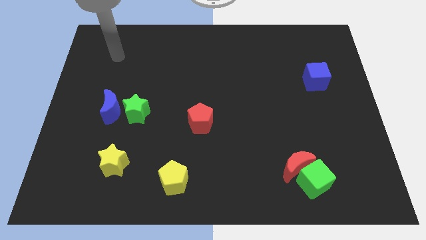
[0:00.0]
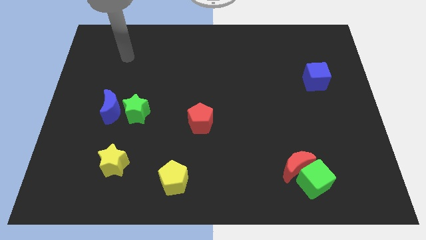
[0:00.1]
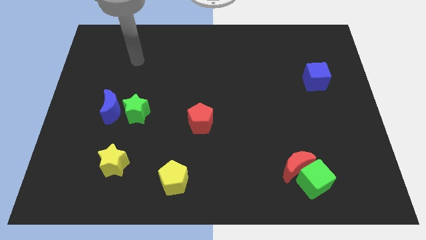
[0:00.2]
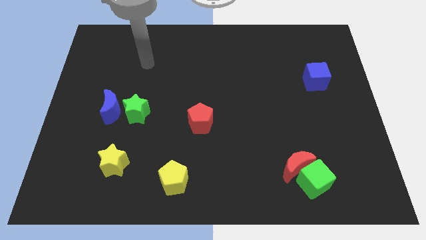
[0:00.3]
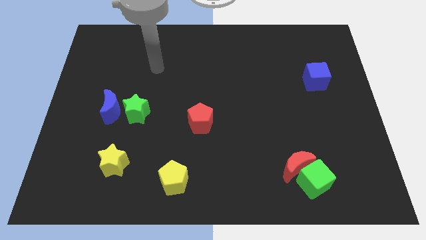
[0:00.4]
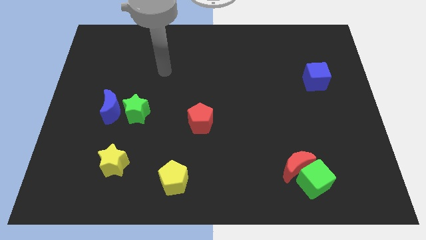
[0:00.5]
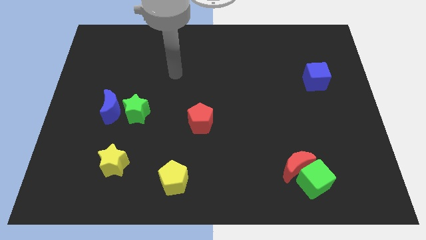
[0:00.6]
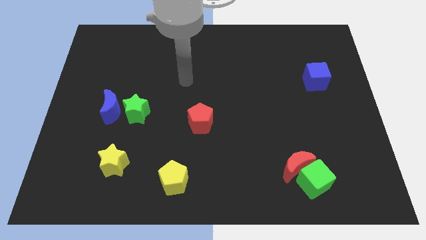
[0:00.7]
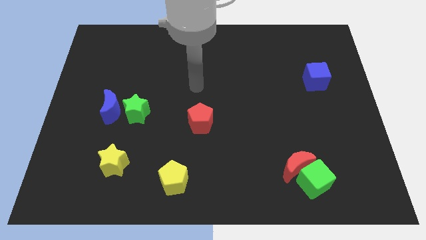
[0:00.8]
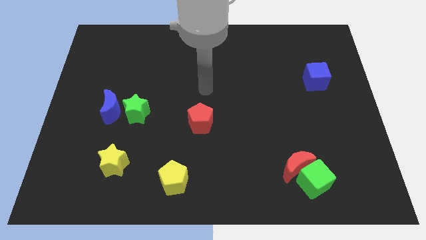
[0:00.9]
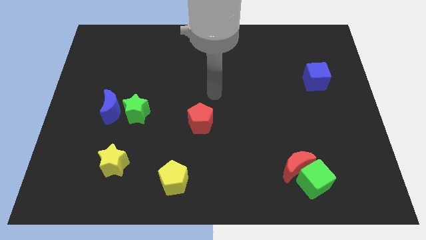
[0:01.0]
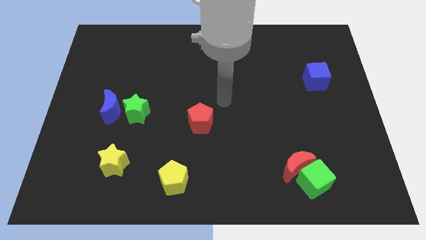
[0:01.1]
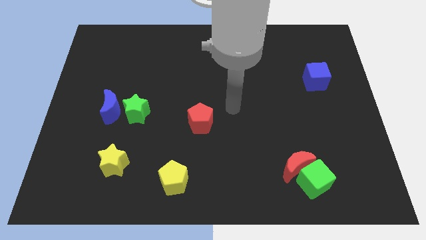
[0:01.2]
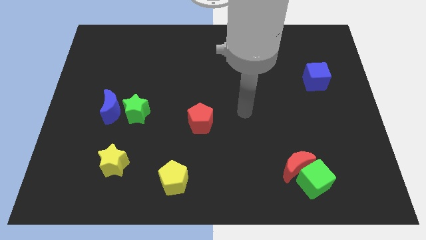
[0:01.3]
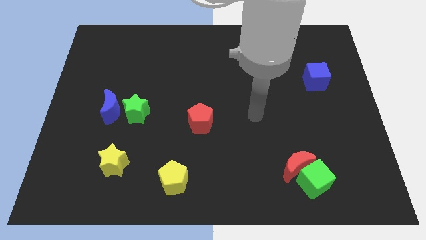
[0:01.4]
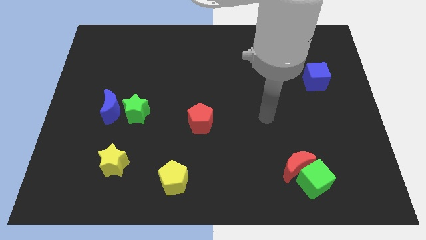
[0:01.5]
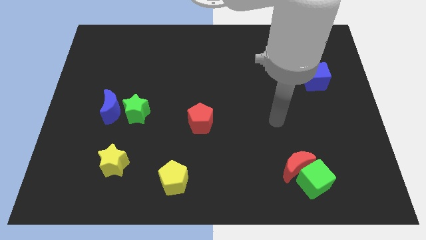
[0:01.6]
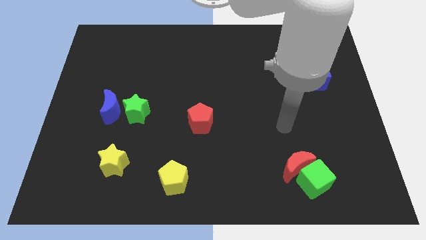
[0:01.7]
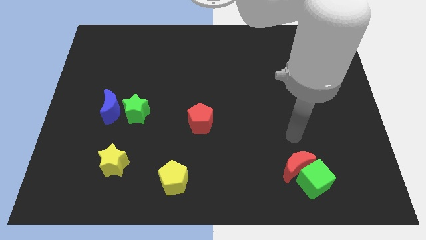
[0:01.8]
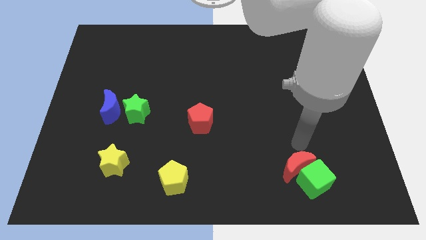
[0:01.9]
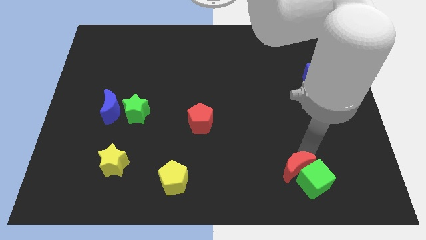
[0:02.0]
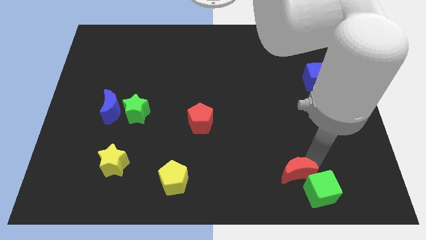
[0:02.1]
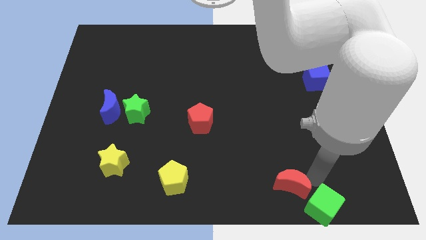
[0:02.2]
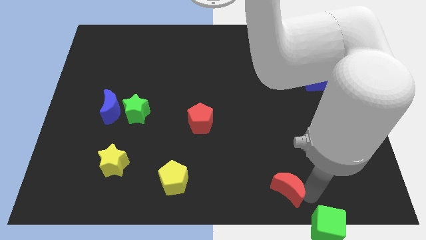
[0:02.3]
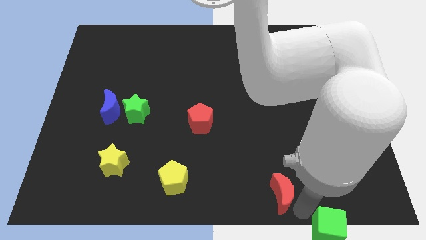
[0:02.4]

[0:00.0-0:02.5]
separate the red moon from the green cube

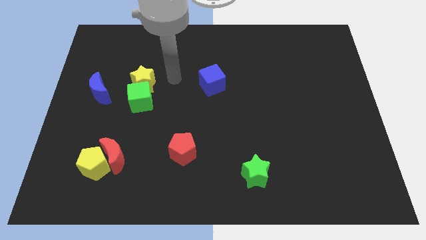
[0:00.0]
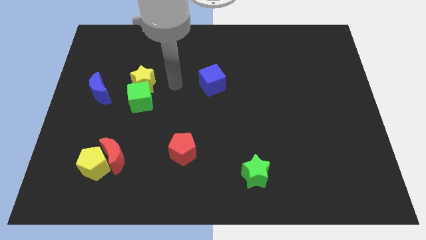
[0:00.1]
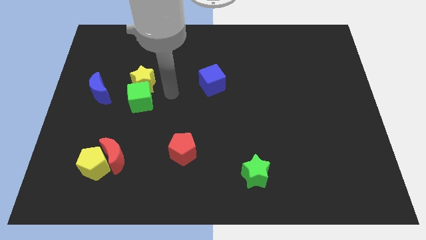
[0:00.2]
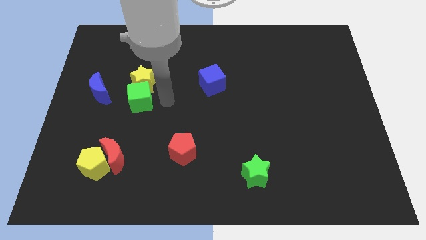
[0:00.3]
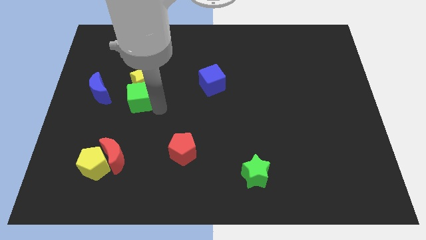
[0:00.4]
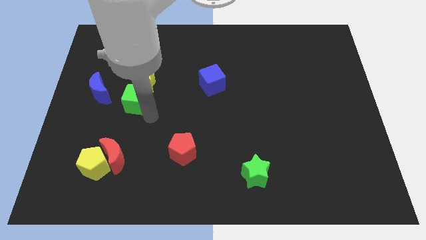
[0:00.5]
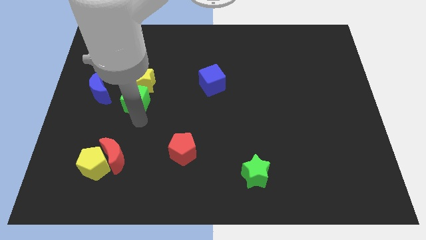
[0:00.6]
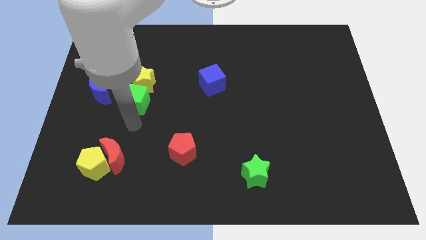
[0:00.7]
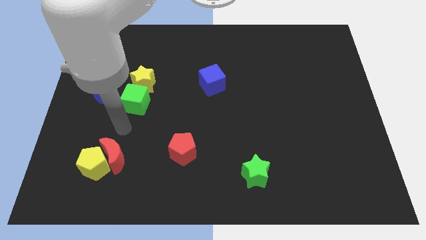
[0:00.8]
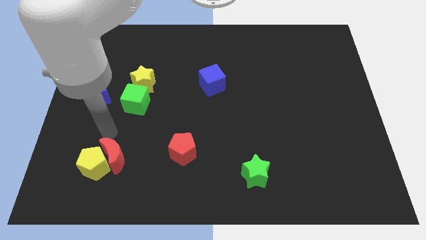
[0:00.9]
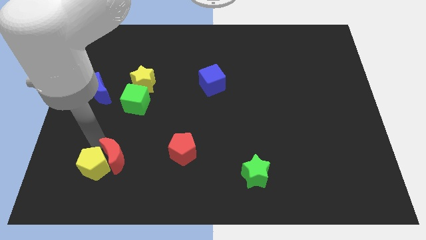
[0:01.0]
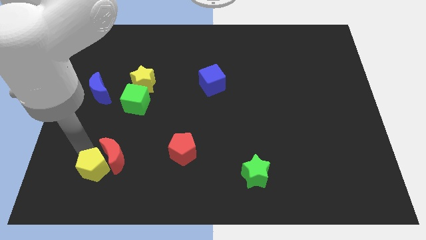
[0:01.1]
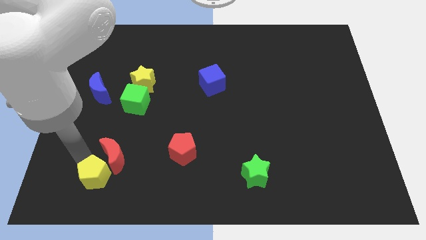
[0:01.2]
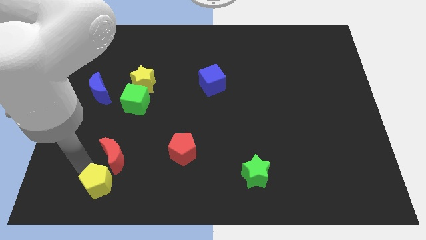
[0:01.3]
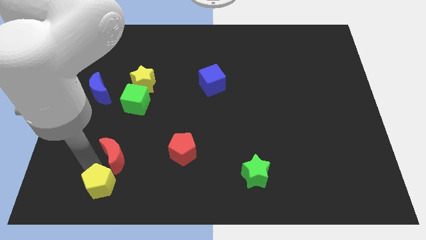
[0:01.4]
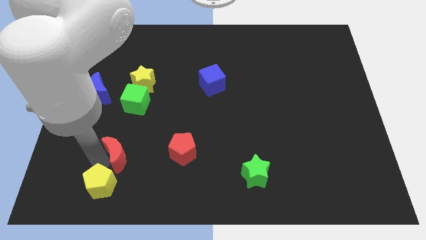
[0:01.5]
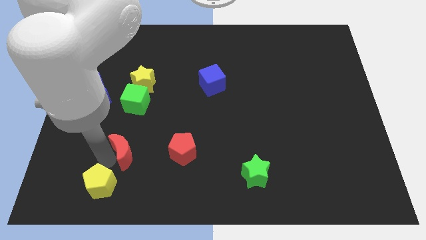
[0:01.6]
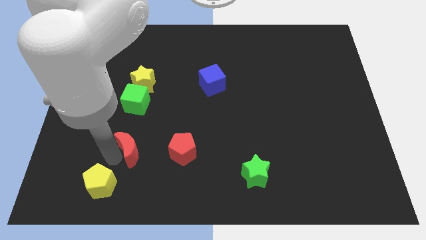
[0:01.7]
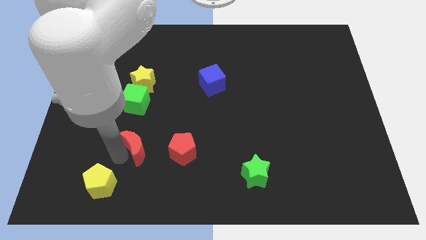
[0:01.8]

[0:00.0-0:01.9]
separate the red moon from the yellow pentagon

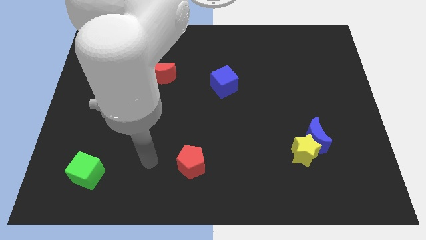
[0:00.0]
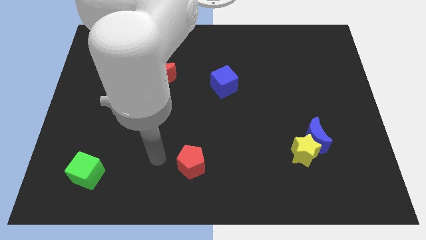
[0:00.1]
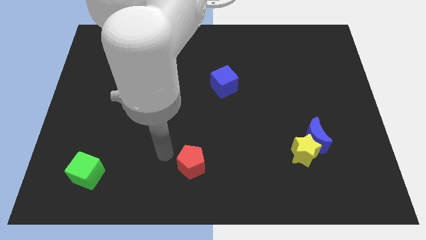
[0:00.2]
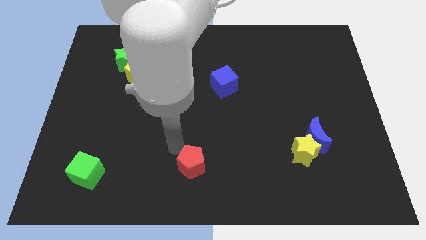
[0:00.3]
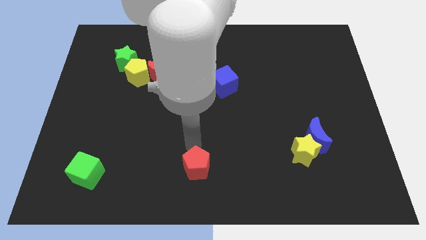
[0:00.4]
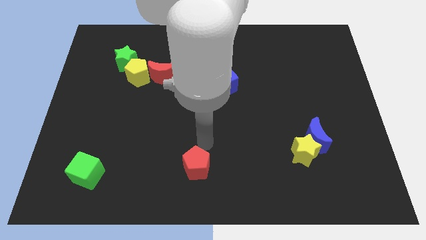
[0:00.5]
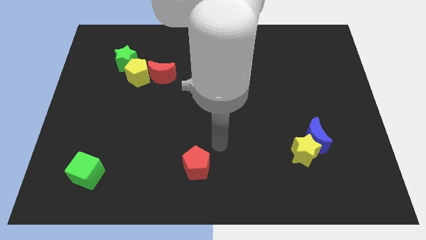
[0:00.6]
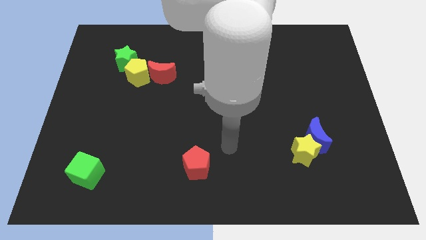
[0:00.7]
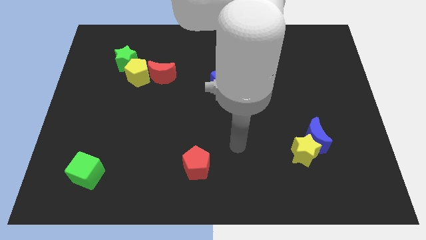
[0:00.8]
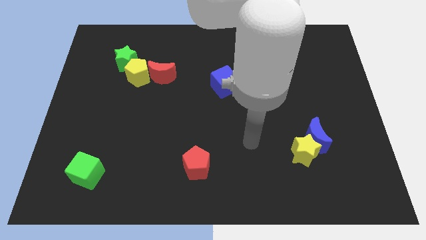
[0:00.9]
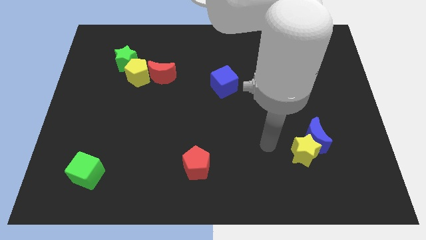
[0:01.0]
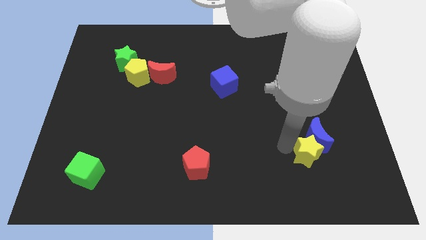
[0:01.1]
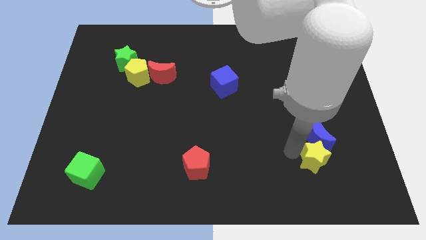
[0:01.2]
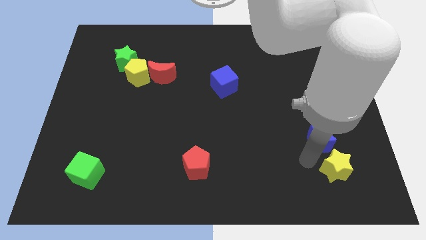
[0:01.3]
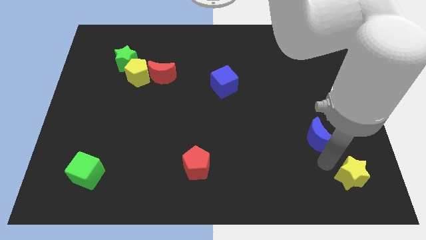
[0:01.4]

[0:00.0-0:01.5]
move the blue moon away from the yellow star

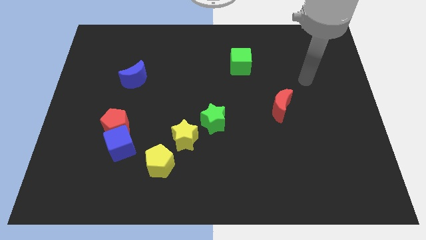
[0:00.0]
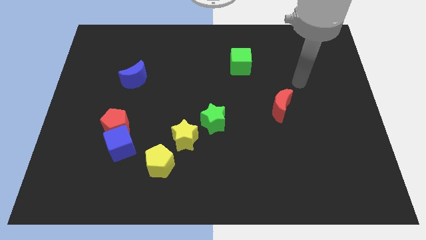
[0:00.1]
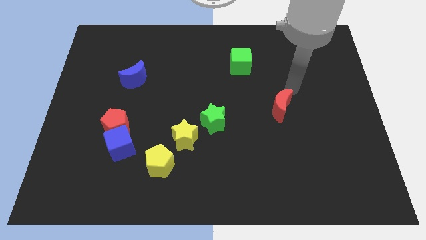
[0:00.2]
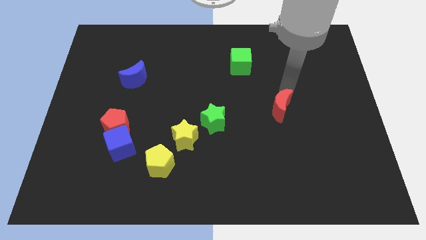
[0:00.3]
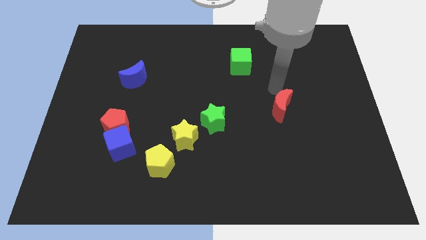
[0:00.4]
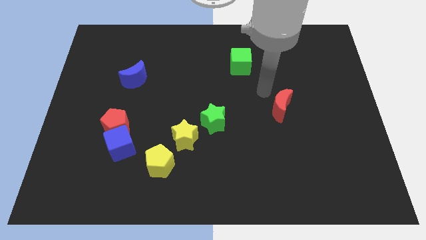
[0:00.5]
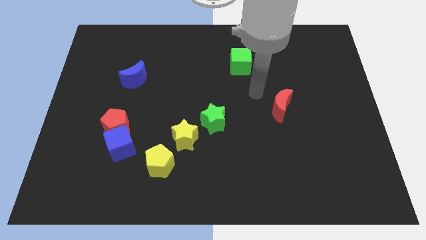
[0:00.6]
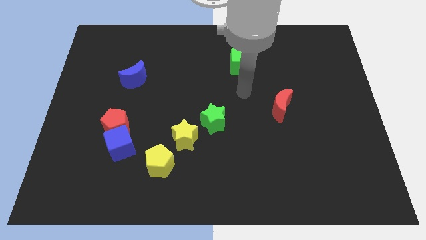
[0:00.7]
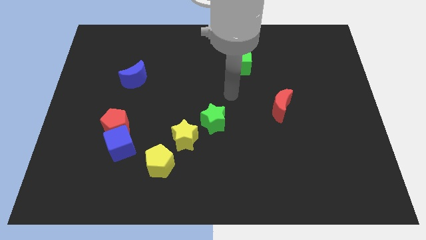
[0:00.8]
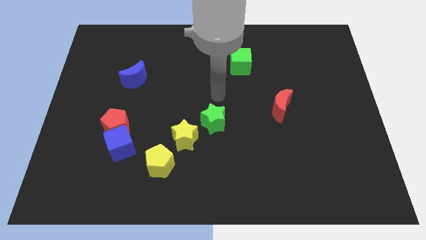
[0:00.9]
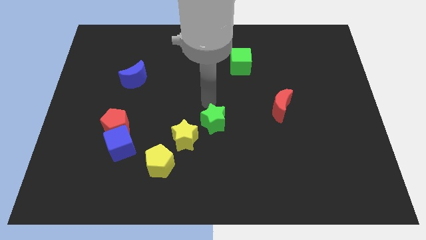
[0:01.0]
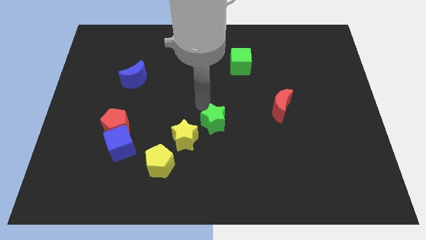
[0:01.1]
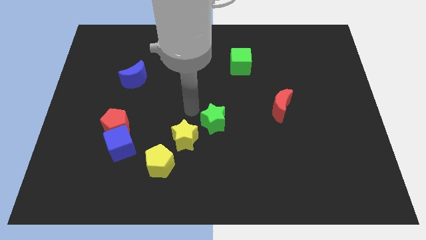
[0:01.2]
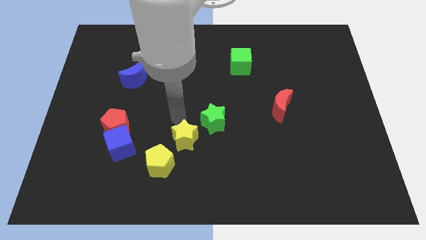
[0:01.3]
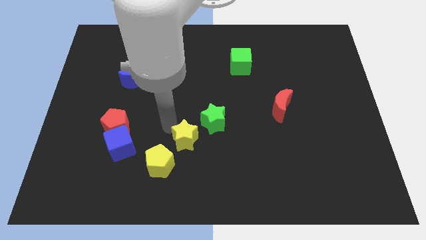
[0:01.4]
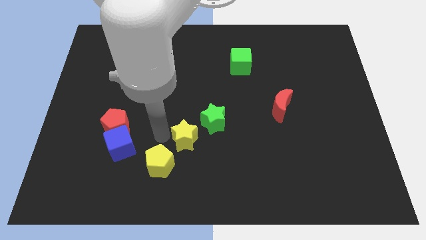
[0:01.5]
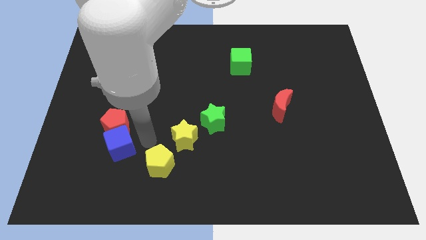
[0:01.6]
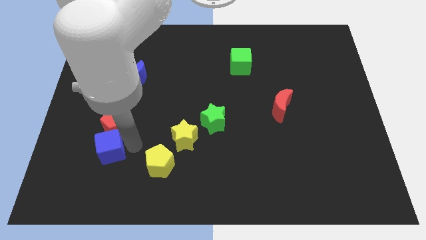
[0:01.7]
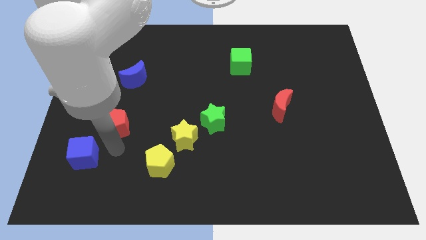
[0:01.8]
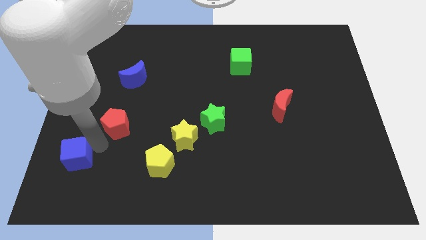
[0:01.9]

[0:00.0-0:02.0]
pull the red pentagon apart from the blue cube

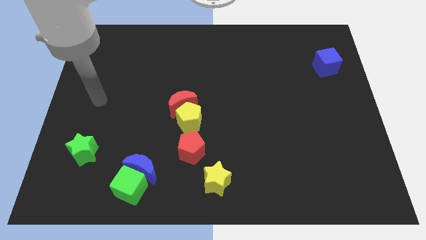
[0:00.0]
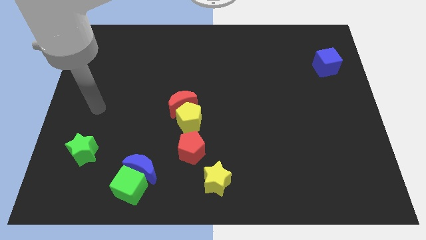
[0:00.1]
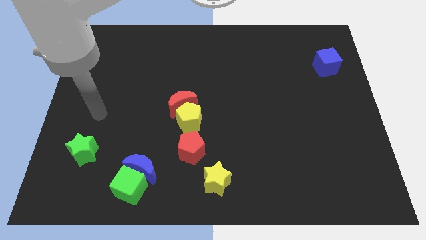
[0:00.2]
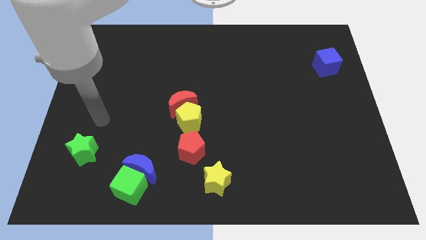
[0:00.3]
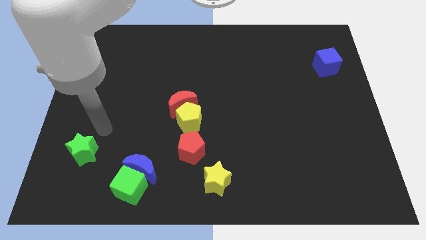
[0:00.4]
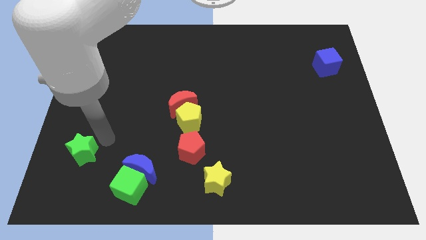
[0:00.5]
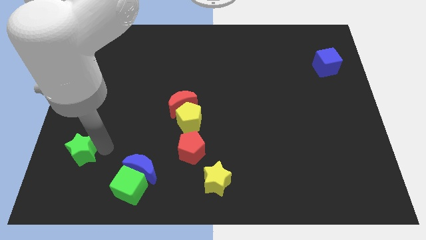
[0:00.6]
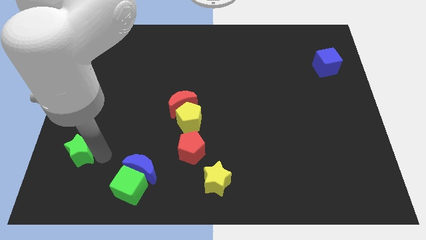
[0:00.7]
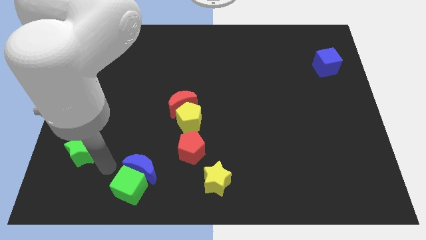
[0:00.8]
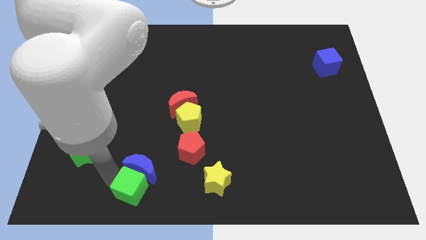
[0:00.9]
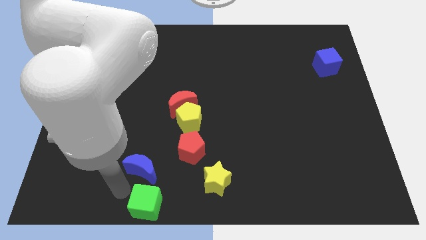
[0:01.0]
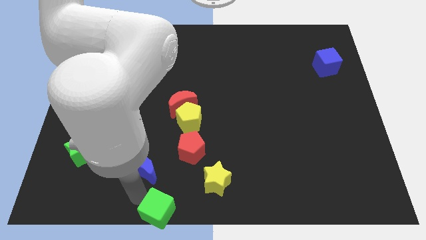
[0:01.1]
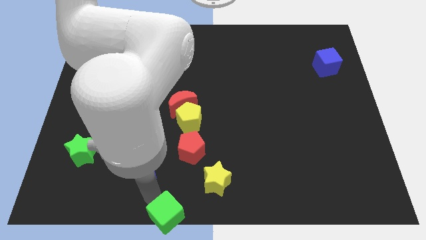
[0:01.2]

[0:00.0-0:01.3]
pull the blue moon apart from the green cube
